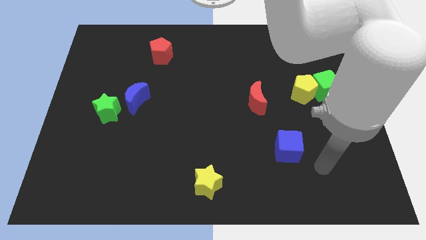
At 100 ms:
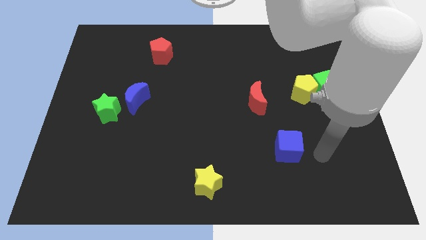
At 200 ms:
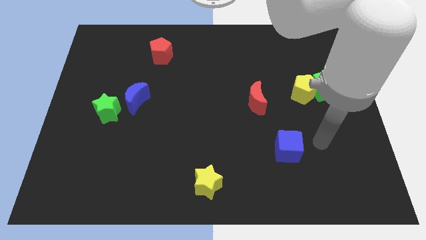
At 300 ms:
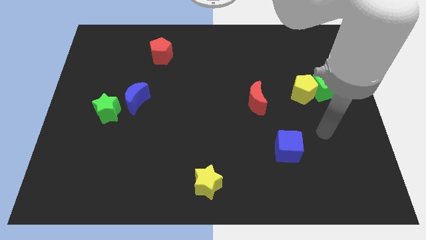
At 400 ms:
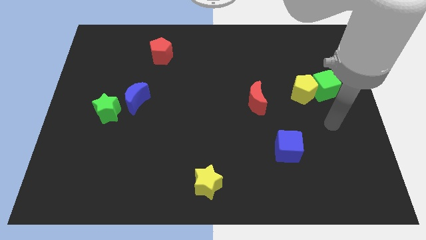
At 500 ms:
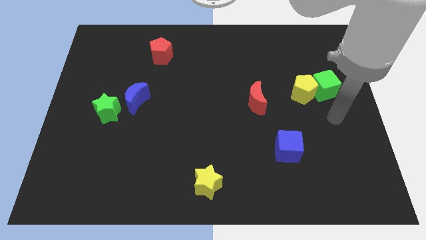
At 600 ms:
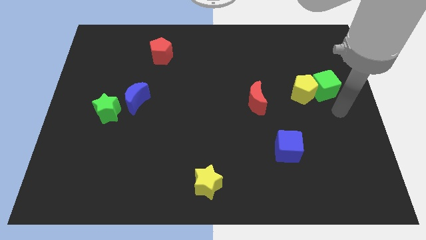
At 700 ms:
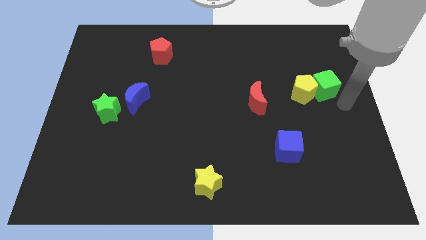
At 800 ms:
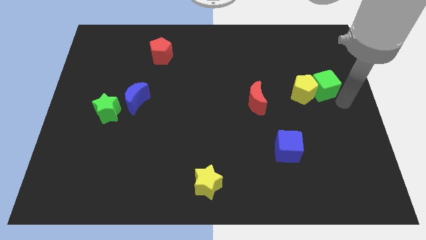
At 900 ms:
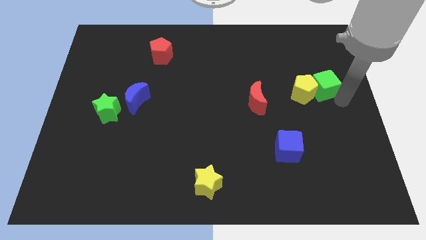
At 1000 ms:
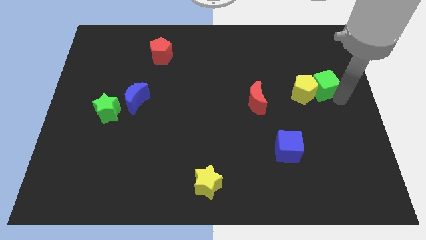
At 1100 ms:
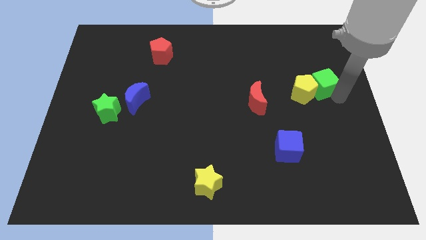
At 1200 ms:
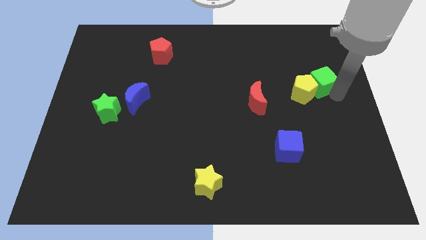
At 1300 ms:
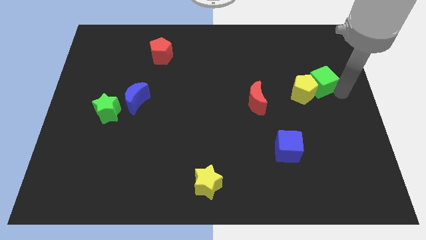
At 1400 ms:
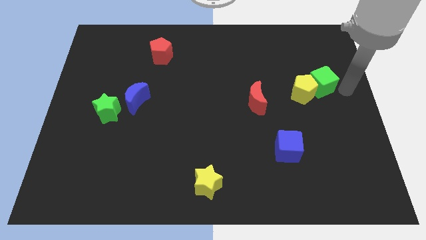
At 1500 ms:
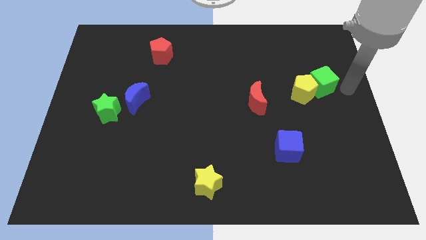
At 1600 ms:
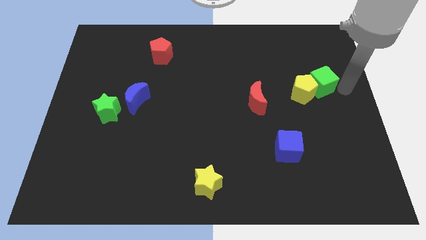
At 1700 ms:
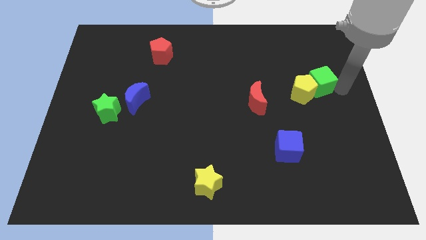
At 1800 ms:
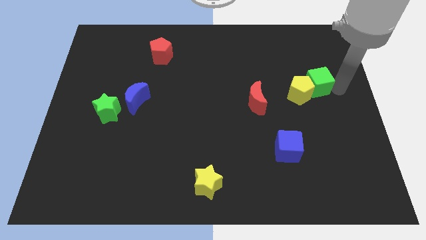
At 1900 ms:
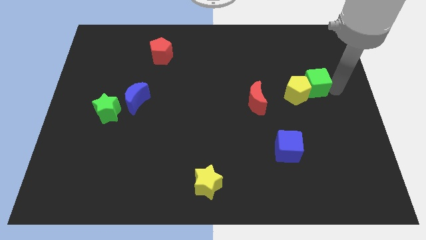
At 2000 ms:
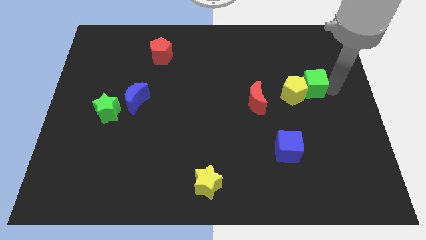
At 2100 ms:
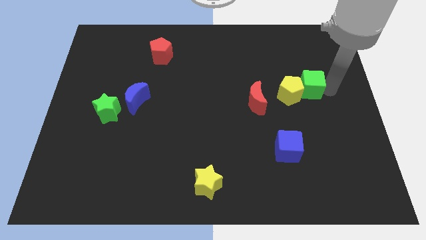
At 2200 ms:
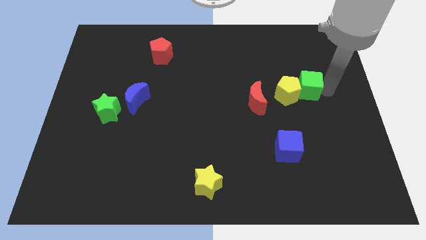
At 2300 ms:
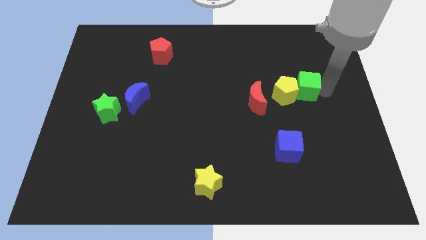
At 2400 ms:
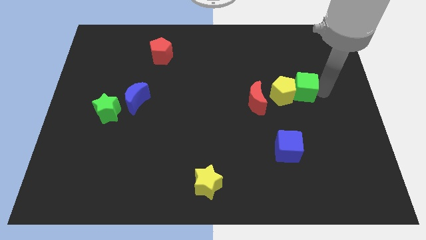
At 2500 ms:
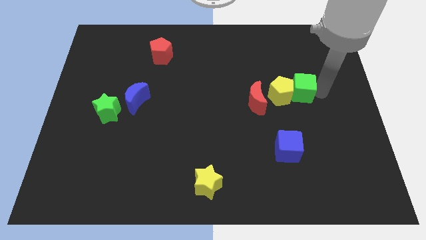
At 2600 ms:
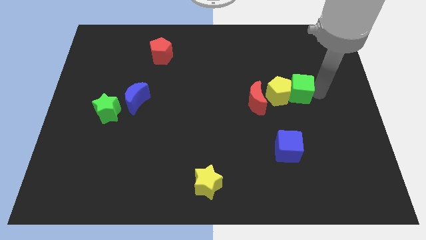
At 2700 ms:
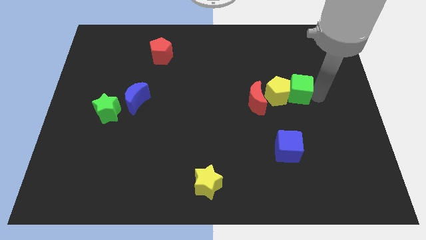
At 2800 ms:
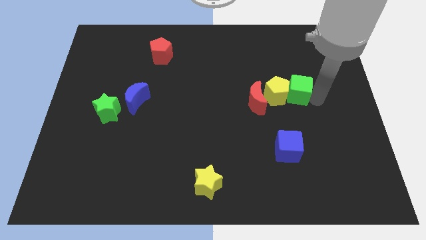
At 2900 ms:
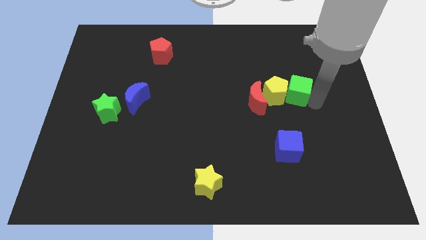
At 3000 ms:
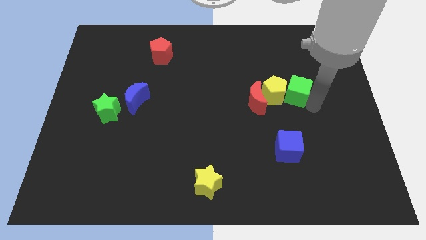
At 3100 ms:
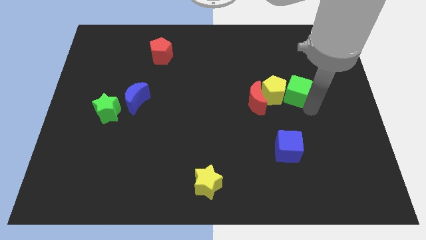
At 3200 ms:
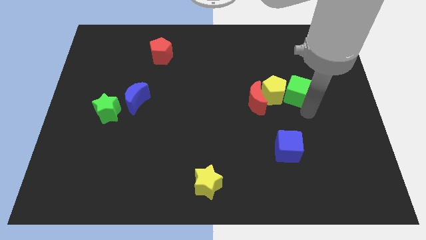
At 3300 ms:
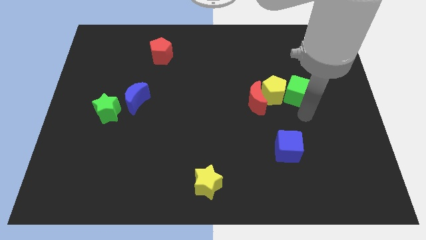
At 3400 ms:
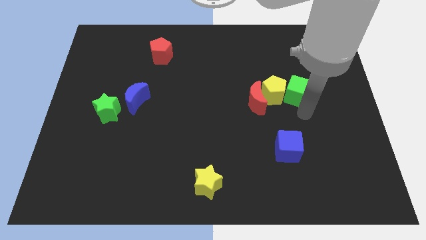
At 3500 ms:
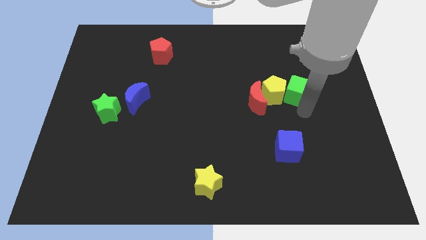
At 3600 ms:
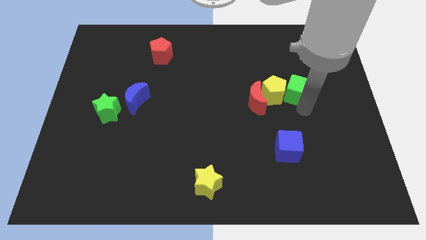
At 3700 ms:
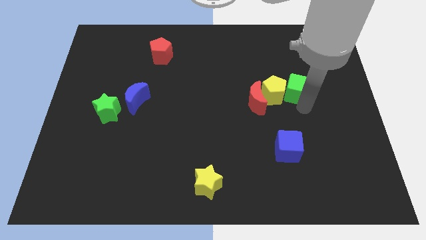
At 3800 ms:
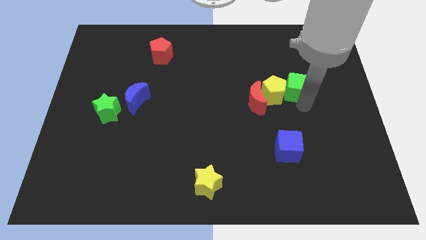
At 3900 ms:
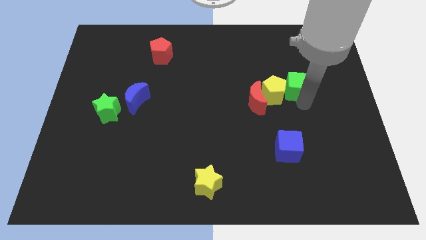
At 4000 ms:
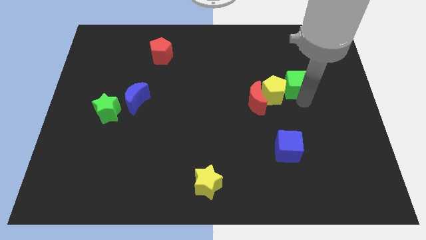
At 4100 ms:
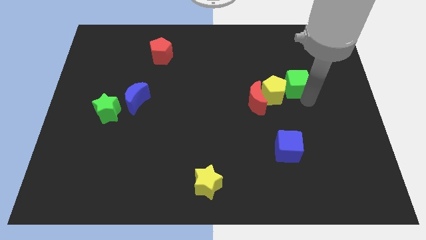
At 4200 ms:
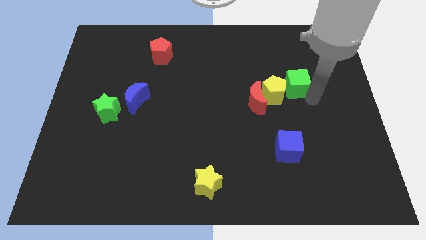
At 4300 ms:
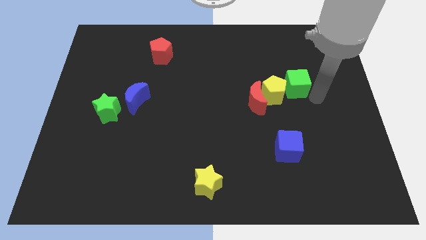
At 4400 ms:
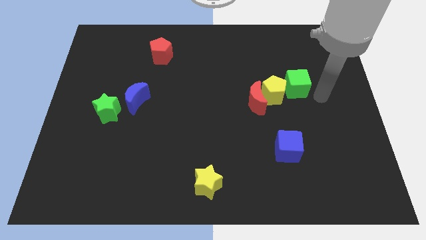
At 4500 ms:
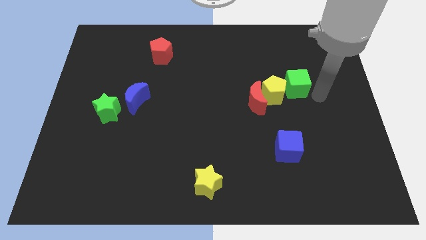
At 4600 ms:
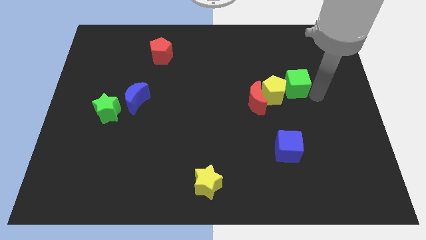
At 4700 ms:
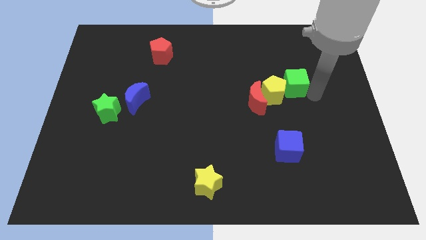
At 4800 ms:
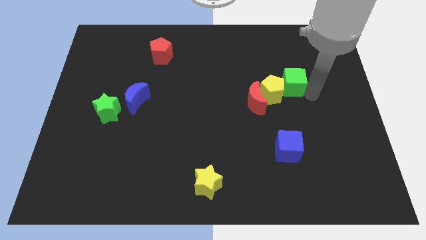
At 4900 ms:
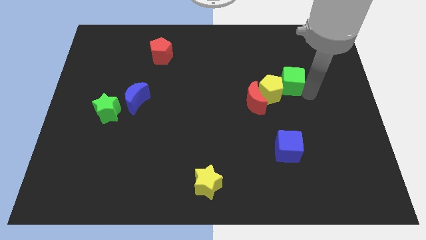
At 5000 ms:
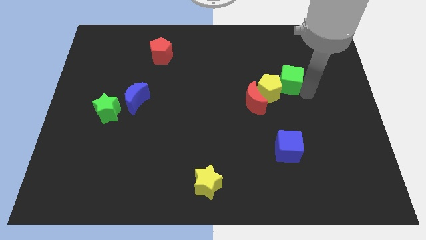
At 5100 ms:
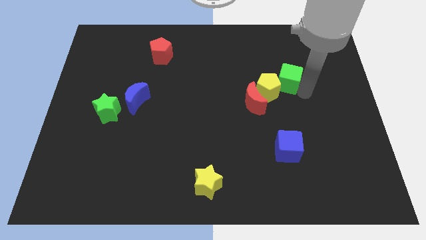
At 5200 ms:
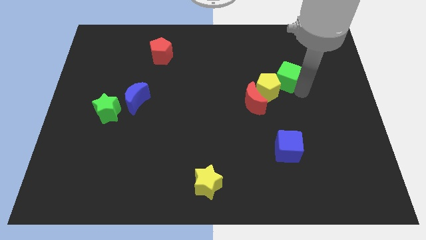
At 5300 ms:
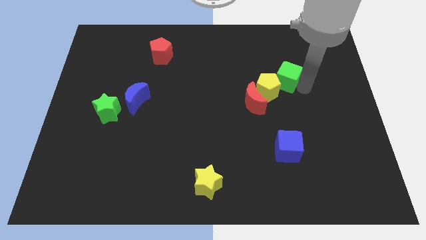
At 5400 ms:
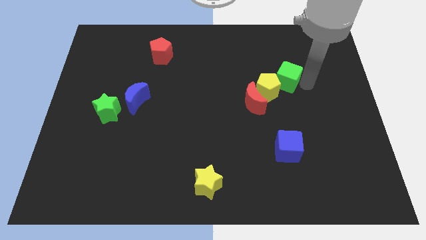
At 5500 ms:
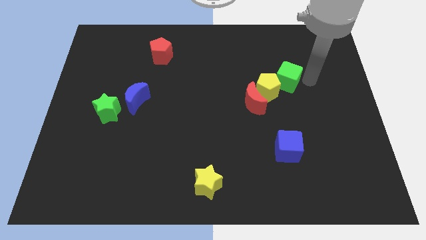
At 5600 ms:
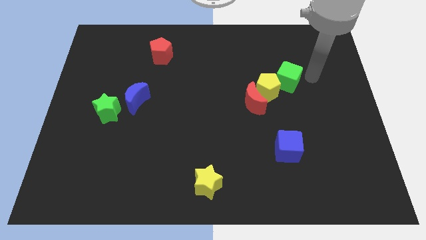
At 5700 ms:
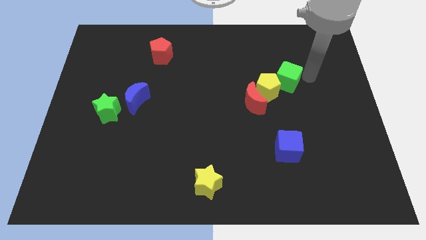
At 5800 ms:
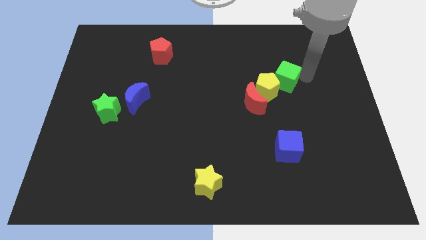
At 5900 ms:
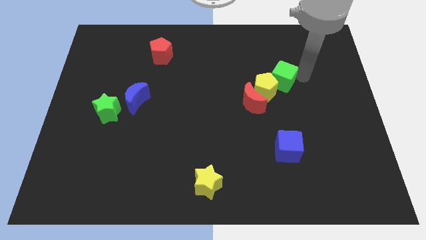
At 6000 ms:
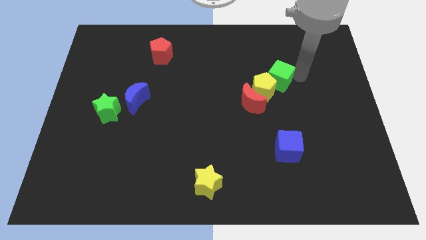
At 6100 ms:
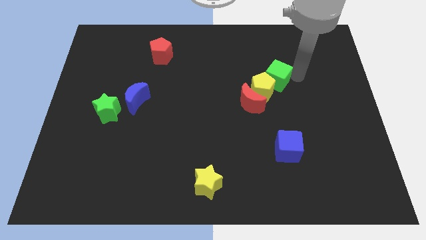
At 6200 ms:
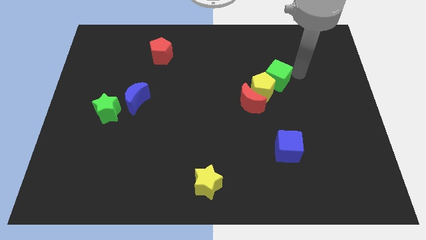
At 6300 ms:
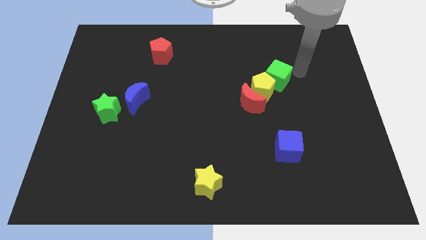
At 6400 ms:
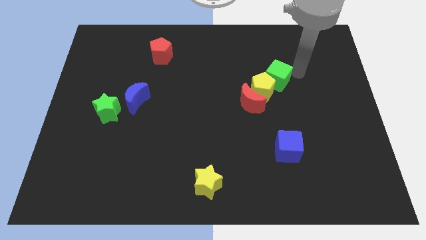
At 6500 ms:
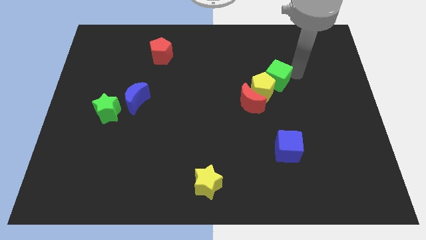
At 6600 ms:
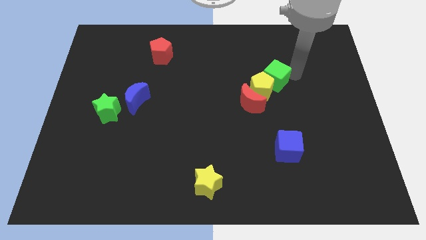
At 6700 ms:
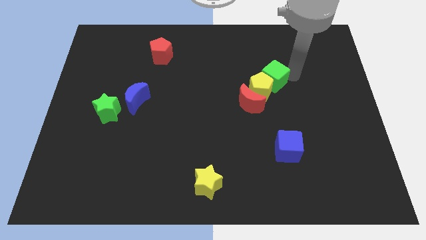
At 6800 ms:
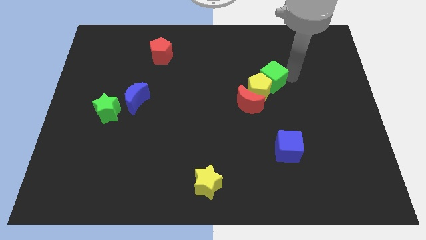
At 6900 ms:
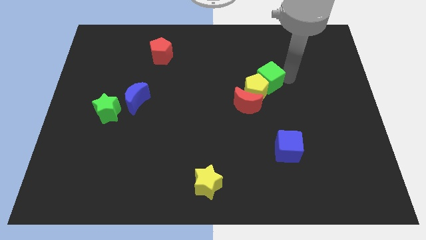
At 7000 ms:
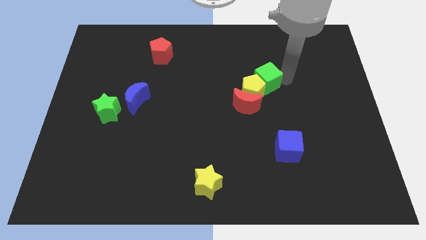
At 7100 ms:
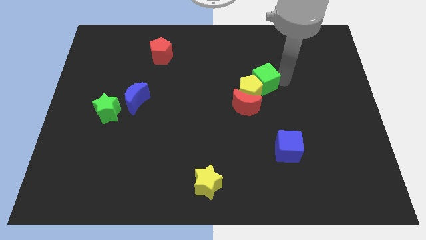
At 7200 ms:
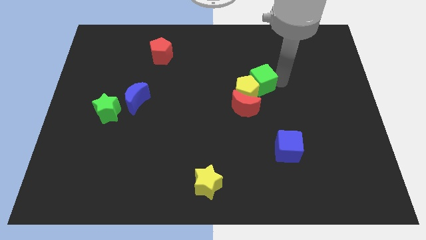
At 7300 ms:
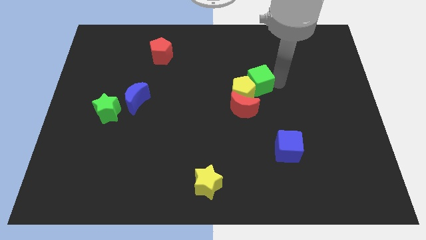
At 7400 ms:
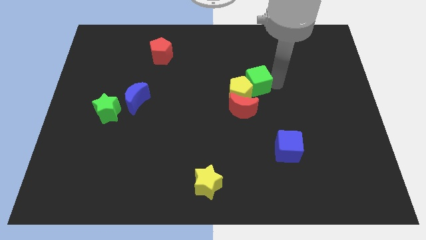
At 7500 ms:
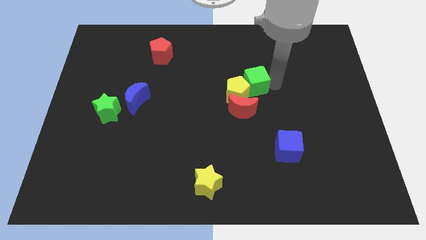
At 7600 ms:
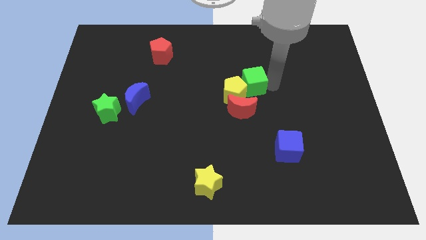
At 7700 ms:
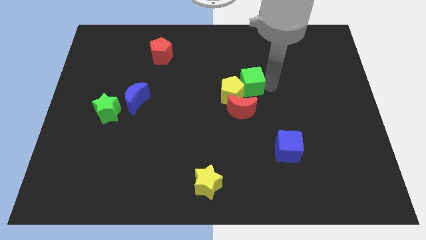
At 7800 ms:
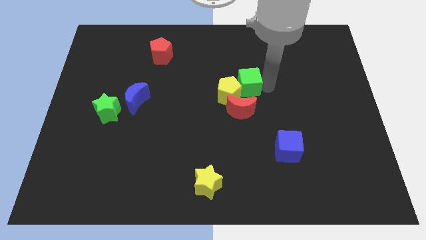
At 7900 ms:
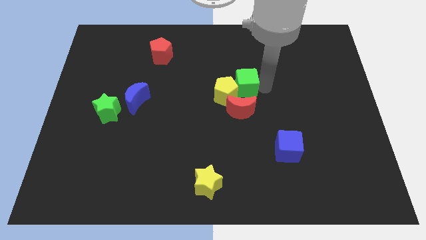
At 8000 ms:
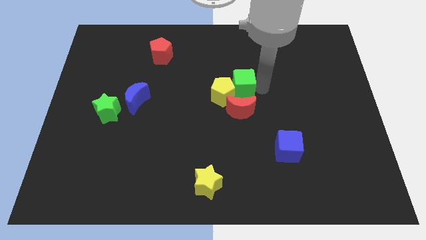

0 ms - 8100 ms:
slide the green cube to the left
